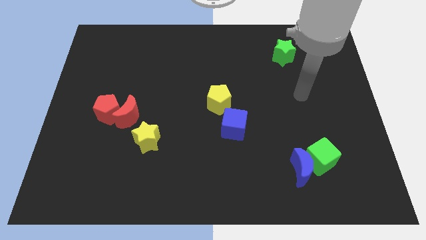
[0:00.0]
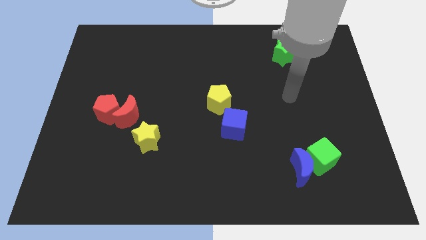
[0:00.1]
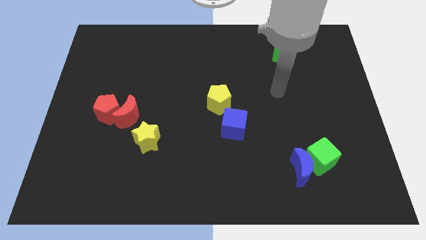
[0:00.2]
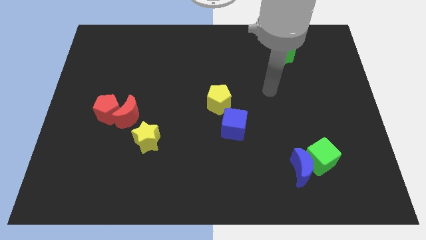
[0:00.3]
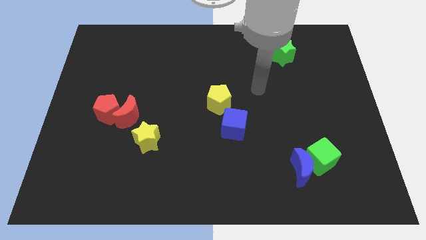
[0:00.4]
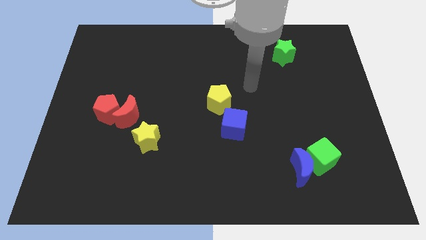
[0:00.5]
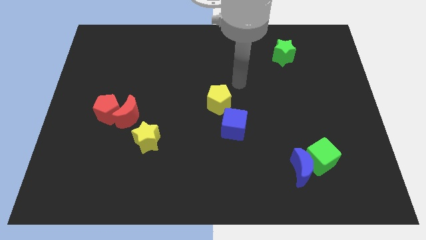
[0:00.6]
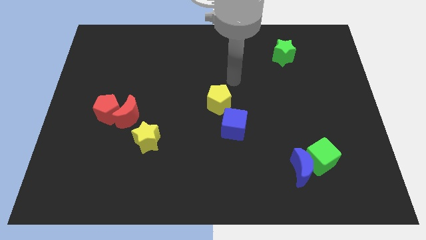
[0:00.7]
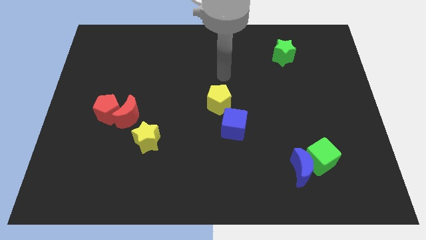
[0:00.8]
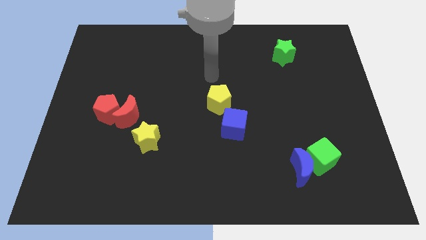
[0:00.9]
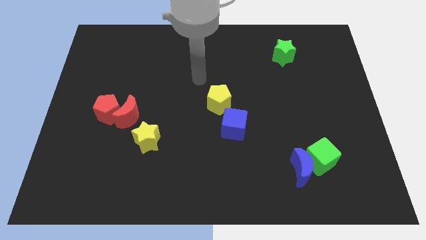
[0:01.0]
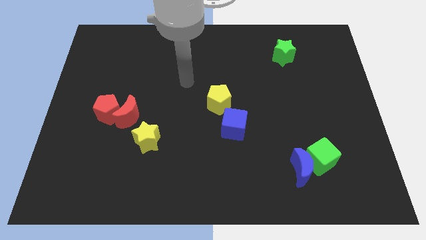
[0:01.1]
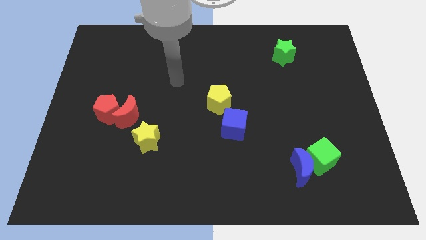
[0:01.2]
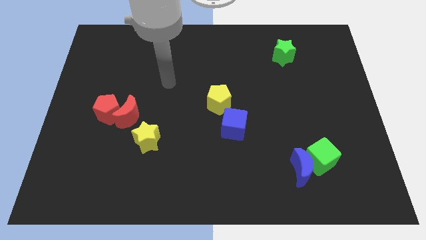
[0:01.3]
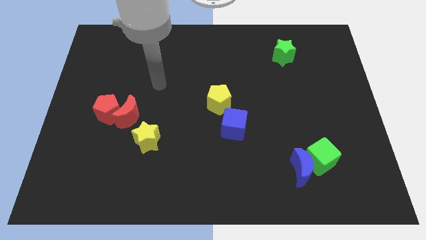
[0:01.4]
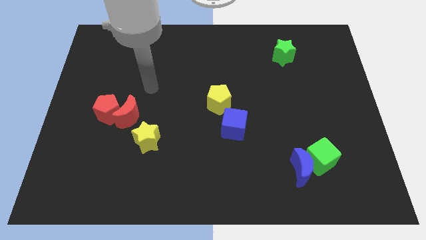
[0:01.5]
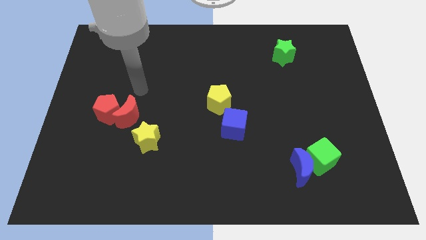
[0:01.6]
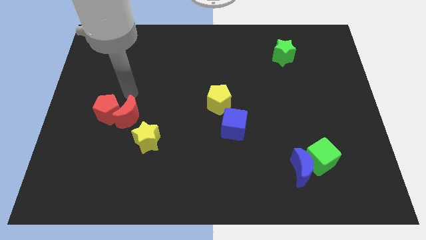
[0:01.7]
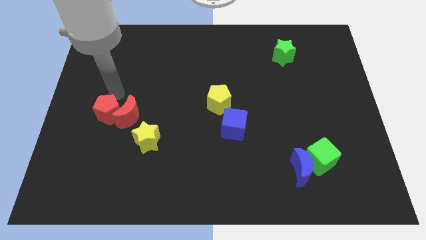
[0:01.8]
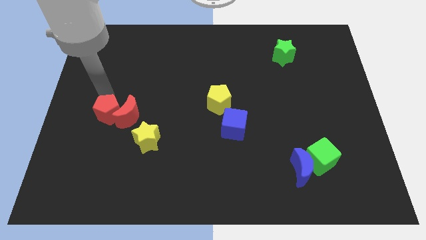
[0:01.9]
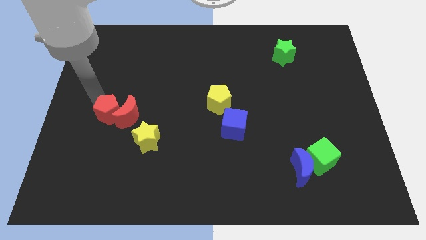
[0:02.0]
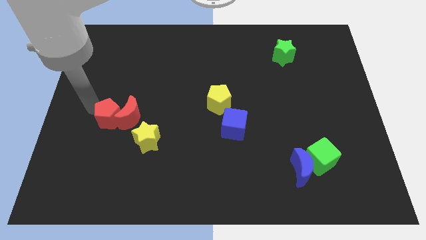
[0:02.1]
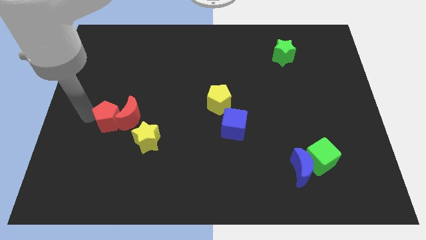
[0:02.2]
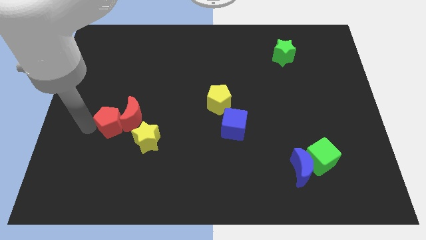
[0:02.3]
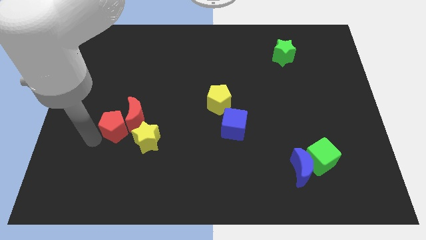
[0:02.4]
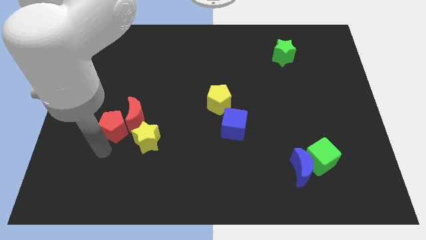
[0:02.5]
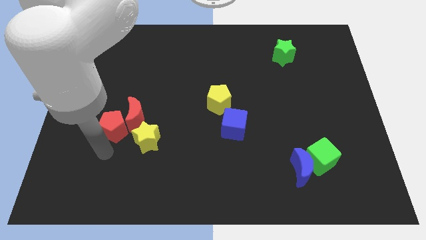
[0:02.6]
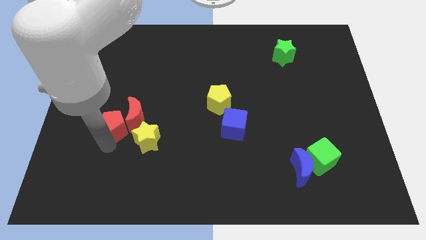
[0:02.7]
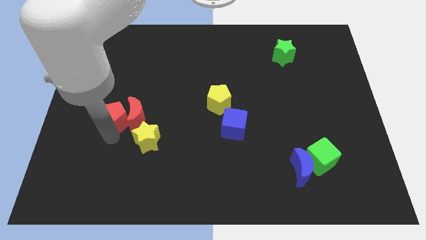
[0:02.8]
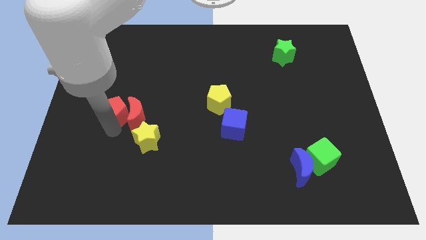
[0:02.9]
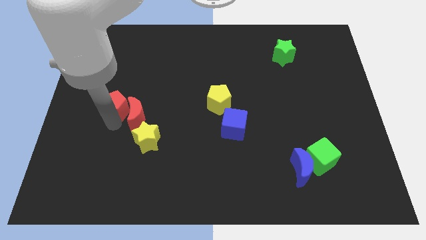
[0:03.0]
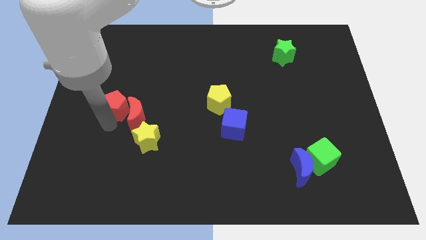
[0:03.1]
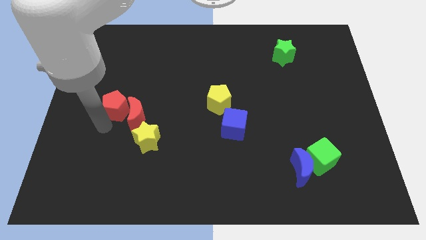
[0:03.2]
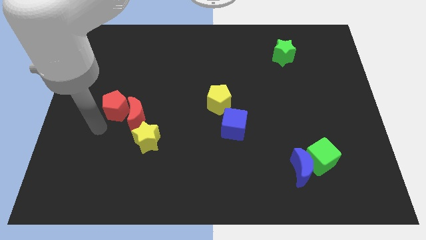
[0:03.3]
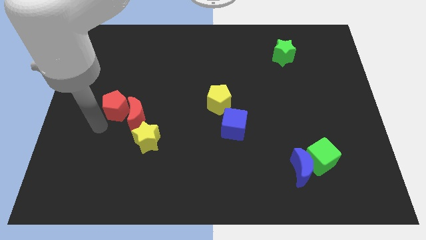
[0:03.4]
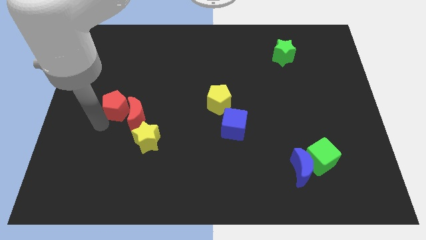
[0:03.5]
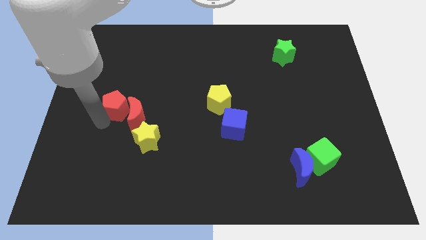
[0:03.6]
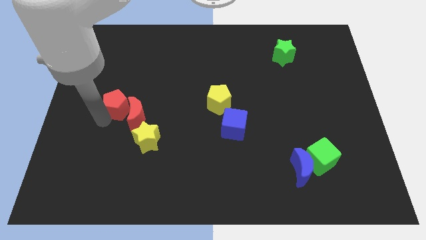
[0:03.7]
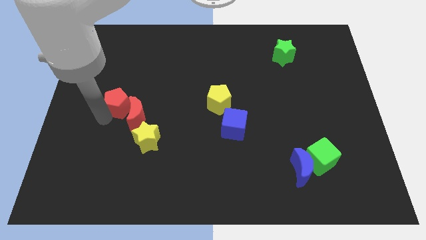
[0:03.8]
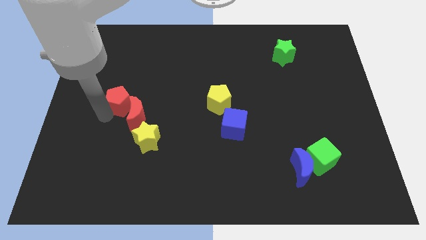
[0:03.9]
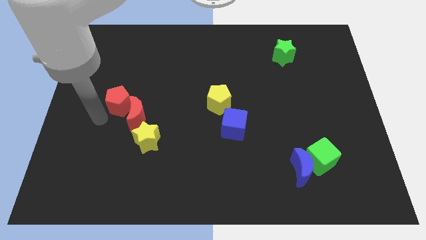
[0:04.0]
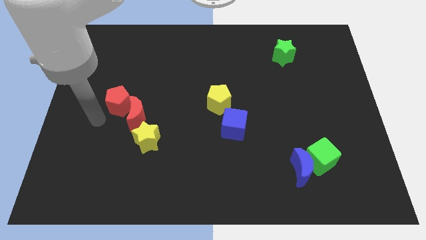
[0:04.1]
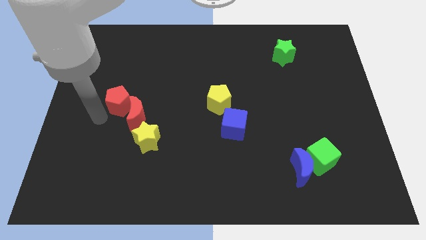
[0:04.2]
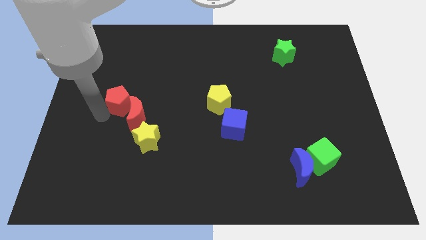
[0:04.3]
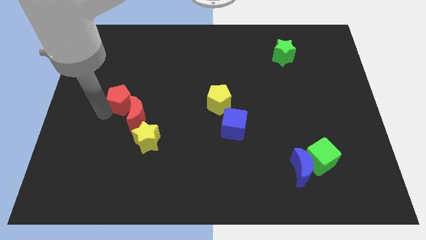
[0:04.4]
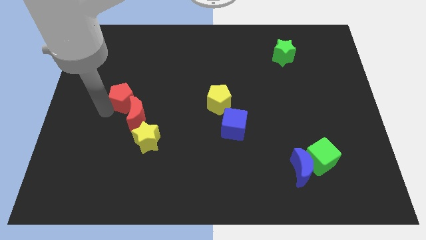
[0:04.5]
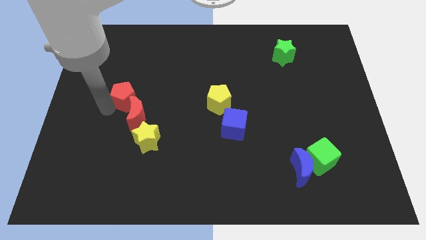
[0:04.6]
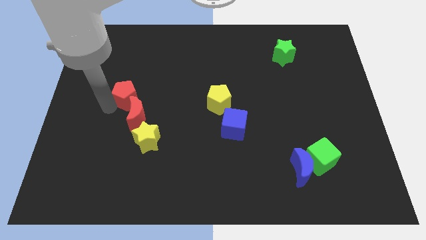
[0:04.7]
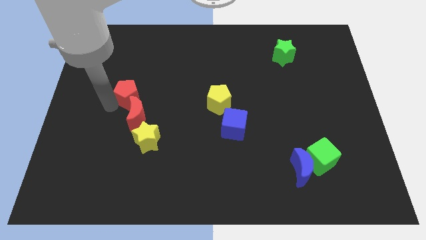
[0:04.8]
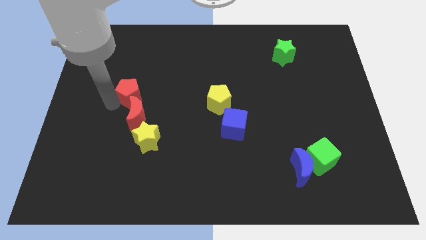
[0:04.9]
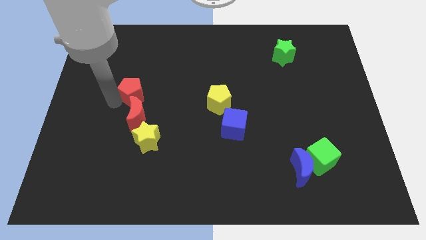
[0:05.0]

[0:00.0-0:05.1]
slightly push the red pentagon upwards and right diagonally

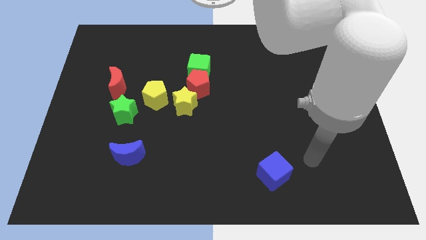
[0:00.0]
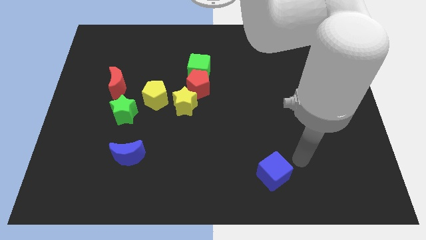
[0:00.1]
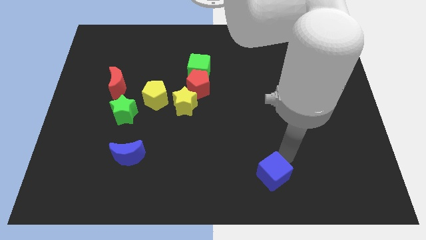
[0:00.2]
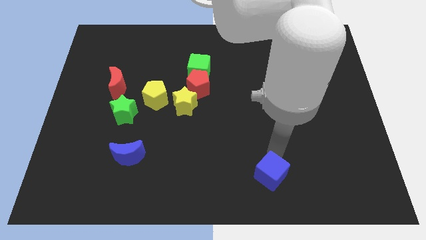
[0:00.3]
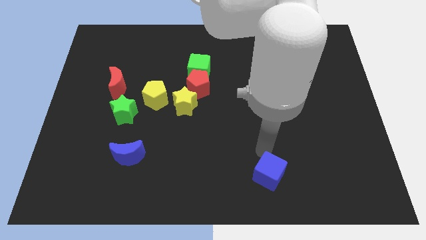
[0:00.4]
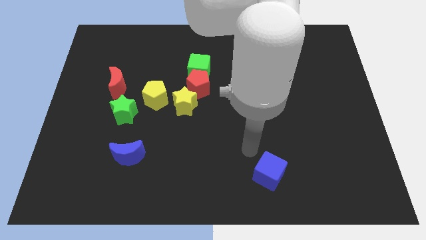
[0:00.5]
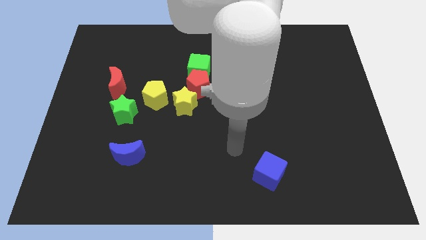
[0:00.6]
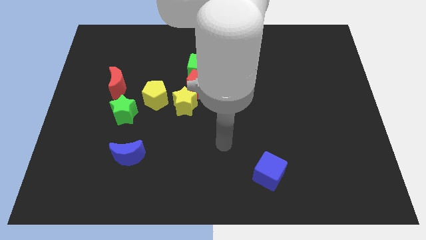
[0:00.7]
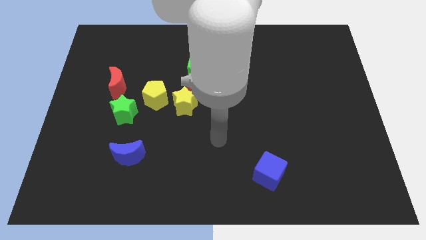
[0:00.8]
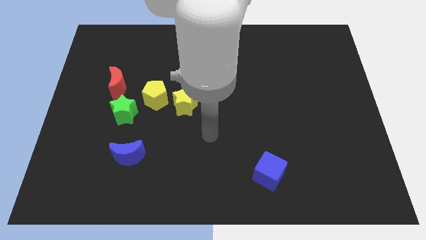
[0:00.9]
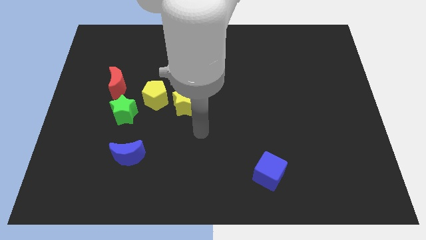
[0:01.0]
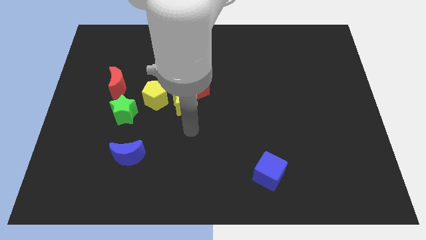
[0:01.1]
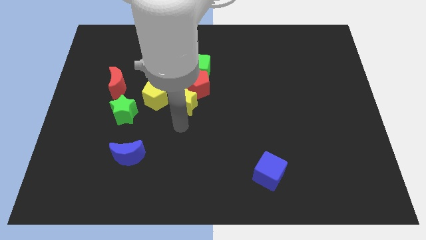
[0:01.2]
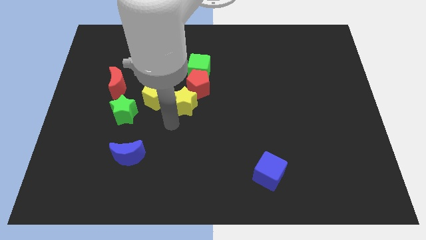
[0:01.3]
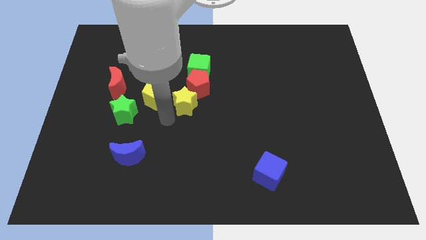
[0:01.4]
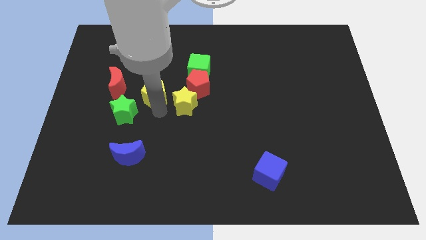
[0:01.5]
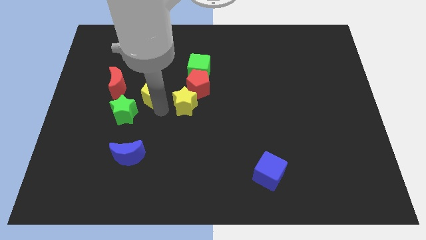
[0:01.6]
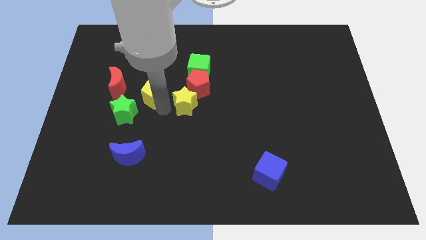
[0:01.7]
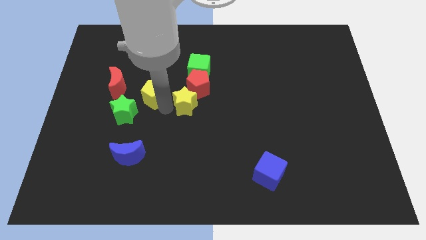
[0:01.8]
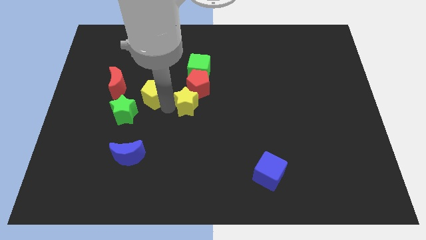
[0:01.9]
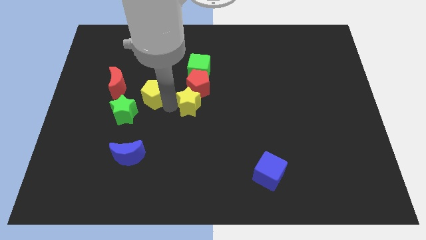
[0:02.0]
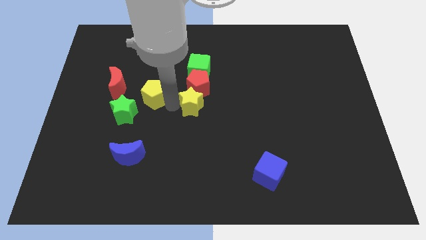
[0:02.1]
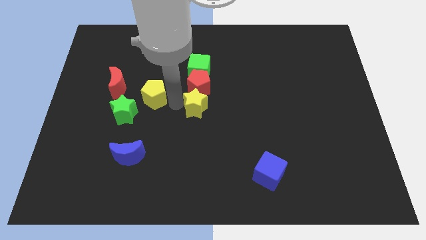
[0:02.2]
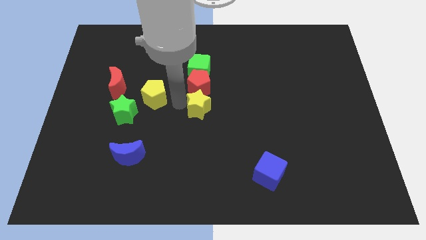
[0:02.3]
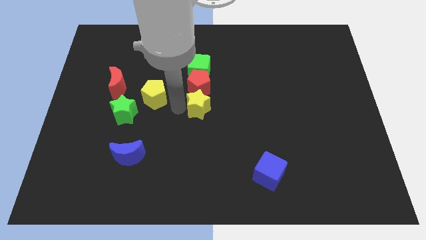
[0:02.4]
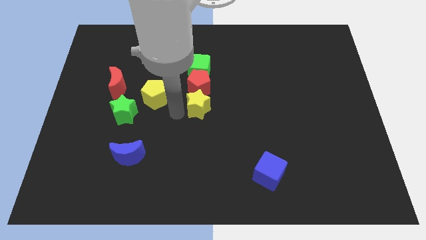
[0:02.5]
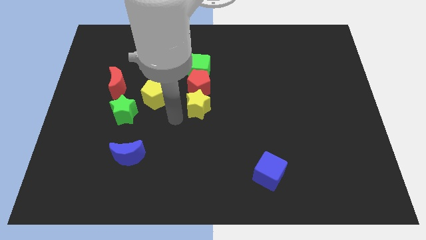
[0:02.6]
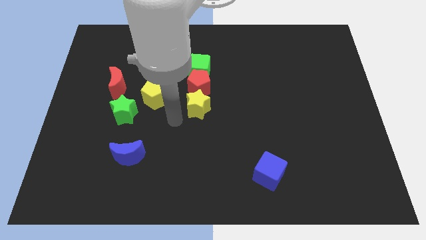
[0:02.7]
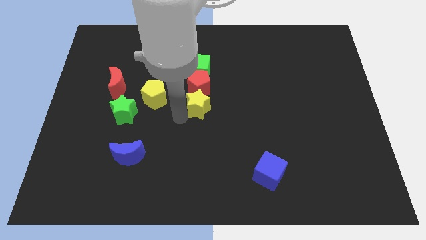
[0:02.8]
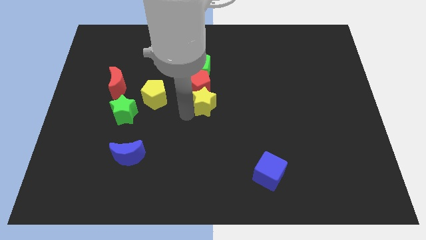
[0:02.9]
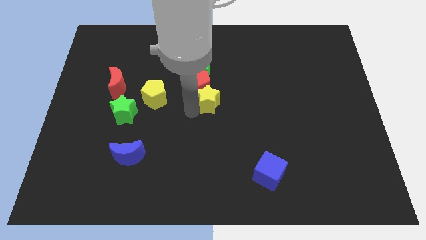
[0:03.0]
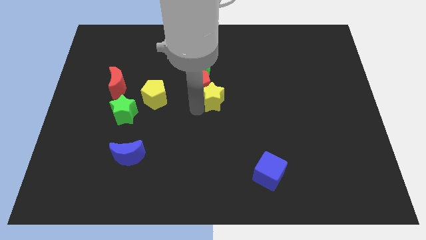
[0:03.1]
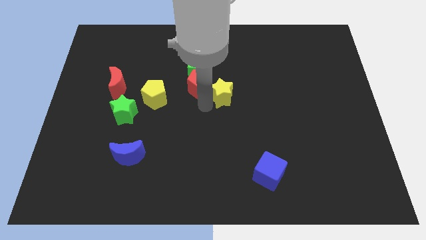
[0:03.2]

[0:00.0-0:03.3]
slightly move the yellow star up and to the right
